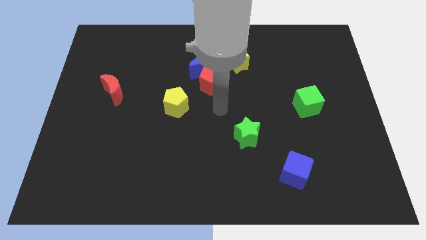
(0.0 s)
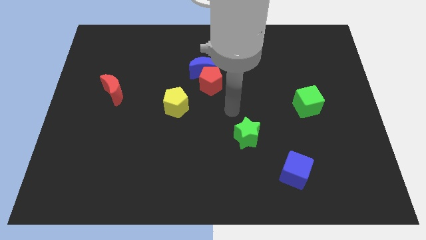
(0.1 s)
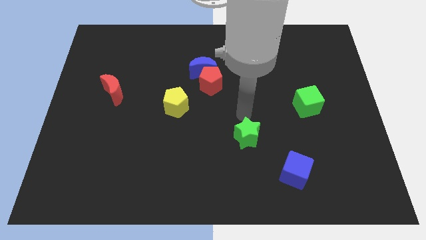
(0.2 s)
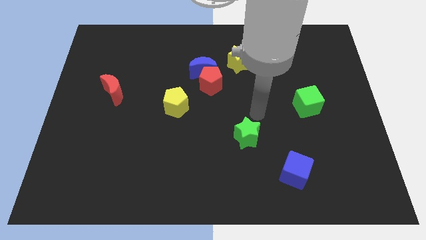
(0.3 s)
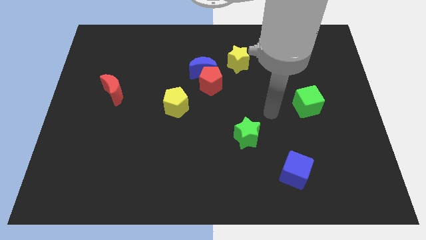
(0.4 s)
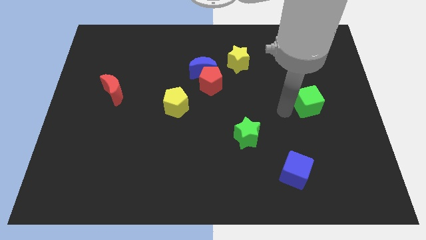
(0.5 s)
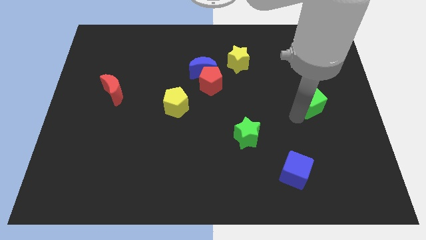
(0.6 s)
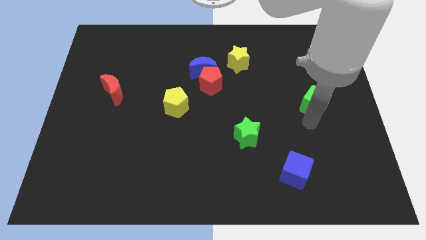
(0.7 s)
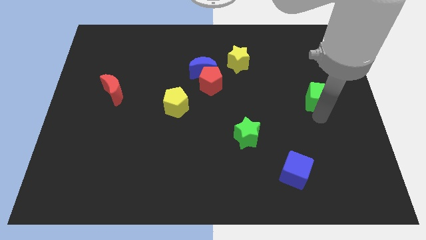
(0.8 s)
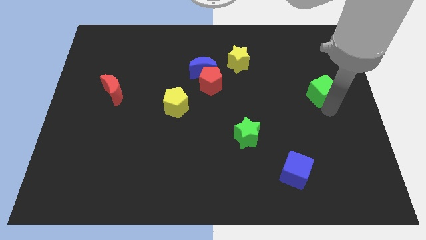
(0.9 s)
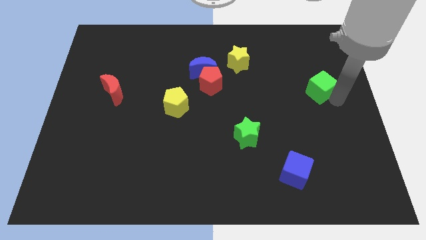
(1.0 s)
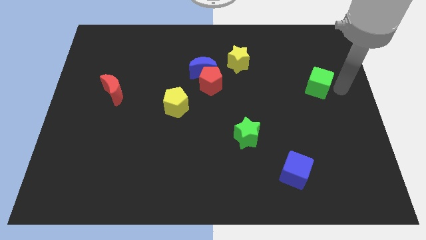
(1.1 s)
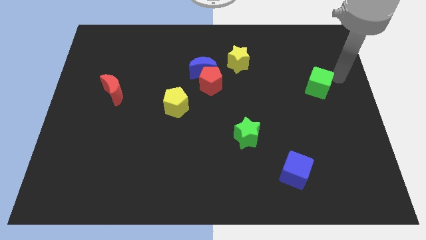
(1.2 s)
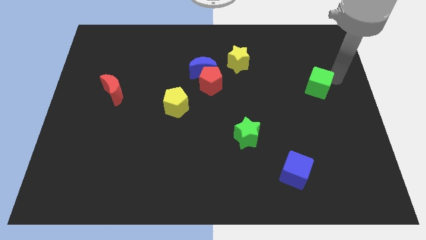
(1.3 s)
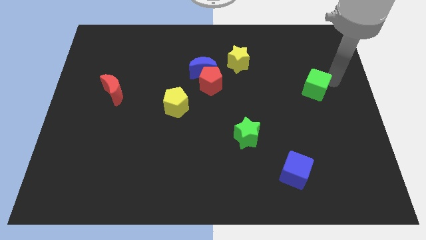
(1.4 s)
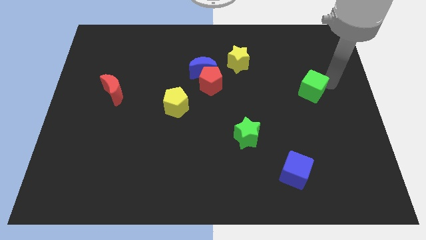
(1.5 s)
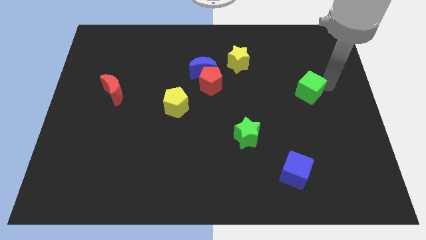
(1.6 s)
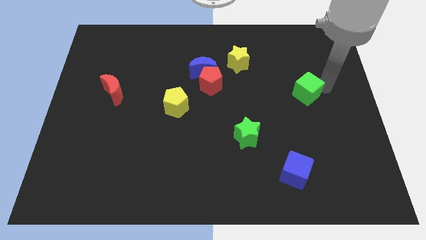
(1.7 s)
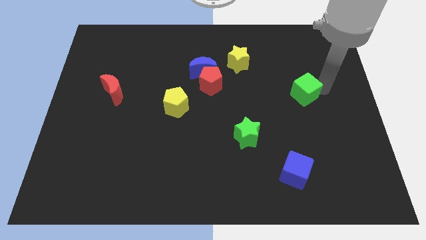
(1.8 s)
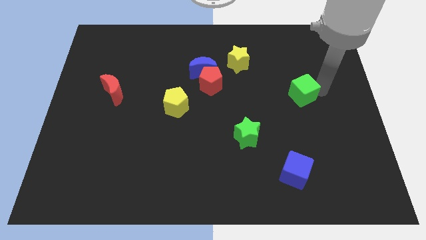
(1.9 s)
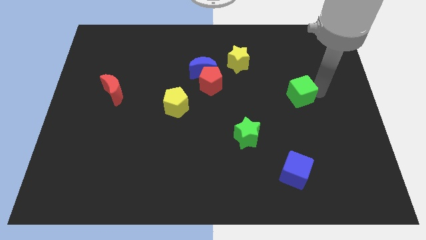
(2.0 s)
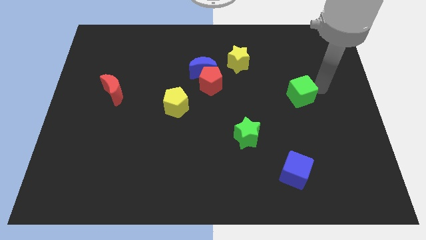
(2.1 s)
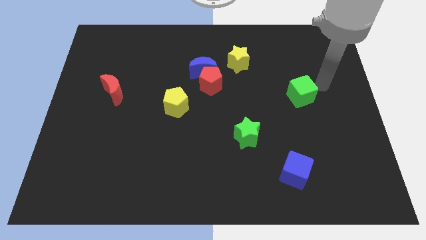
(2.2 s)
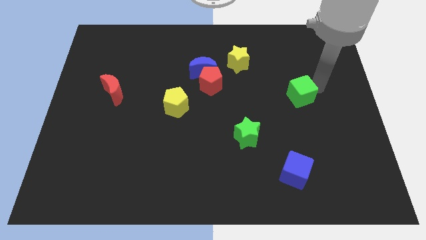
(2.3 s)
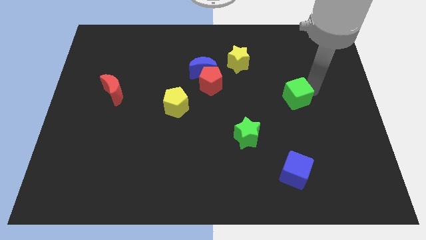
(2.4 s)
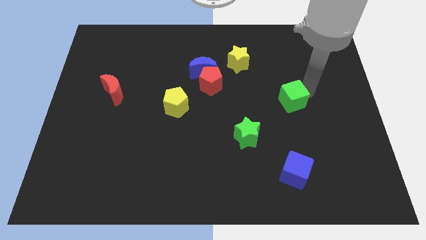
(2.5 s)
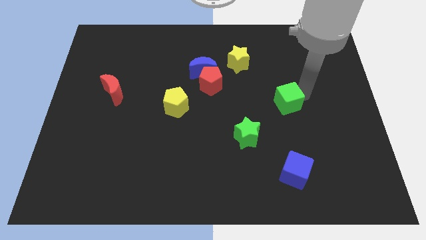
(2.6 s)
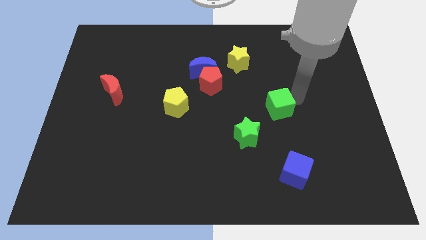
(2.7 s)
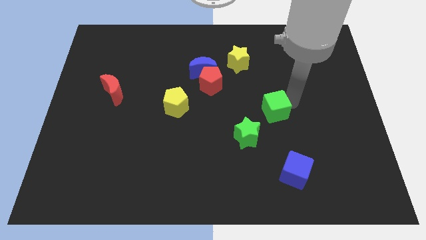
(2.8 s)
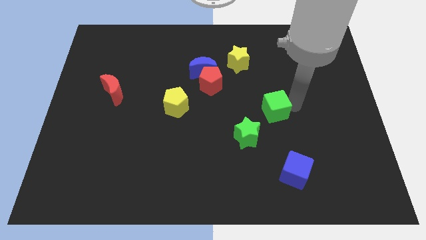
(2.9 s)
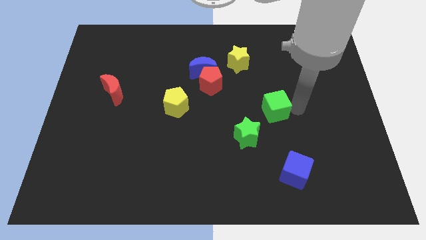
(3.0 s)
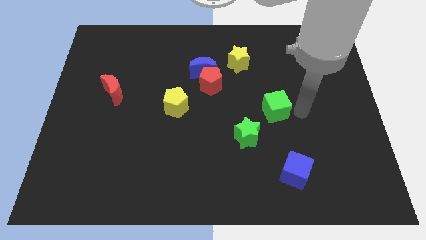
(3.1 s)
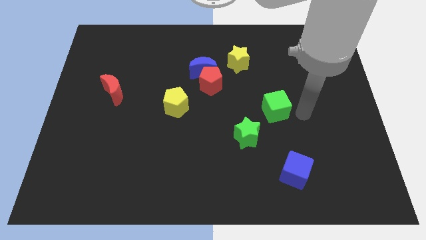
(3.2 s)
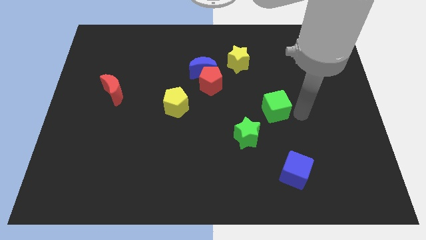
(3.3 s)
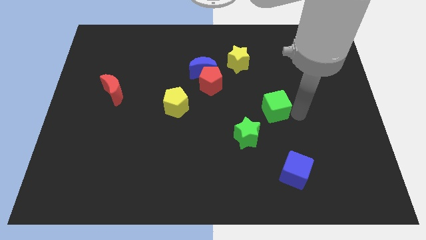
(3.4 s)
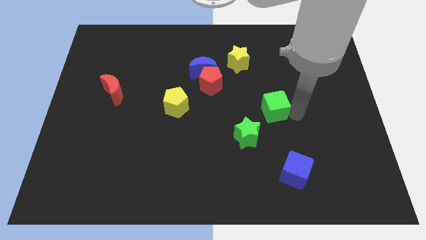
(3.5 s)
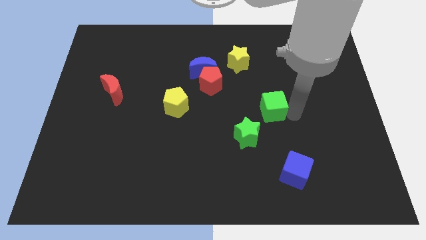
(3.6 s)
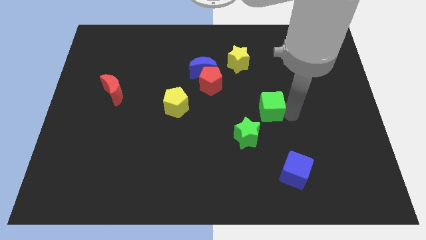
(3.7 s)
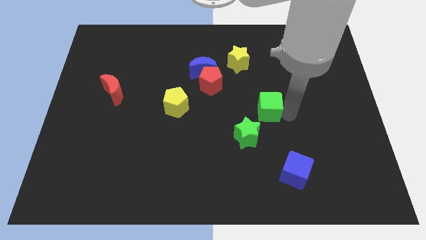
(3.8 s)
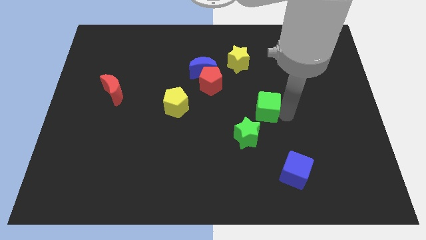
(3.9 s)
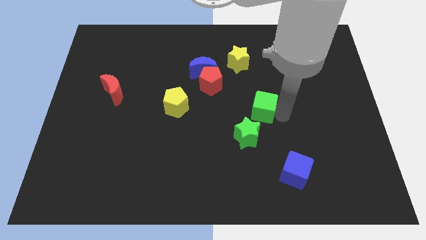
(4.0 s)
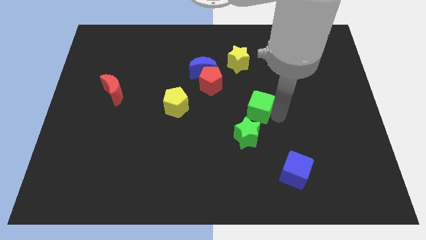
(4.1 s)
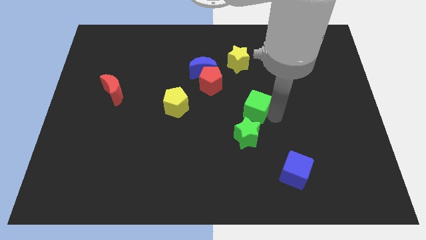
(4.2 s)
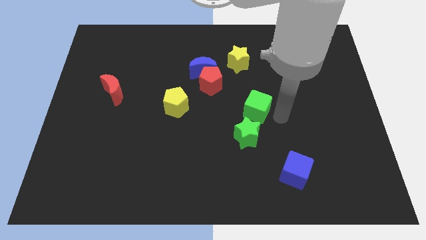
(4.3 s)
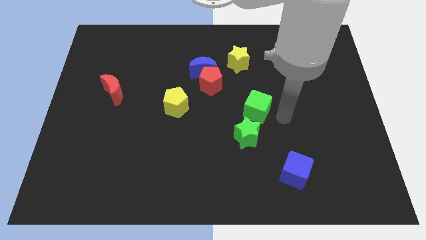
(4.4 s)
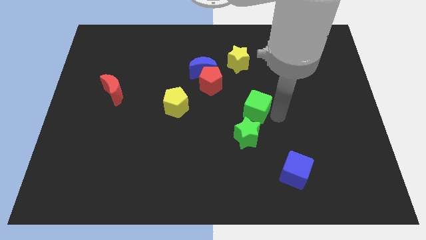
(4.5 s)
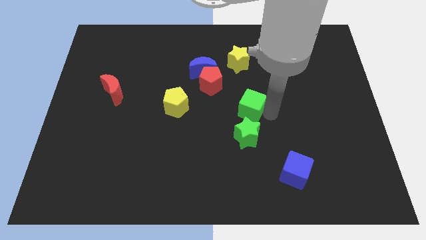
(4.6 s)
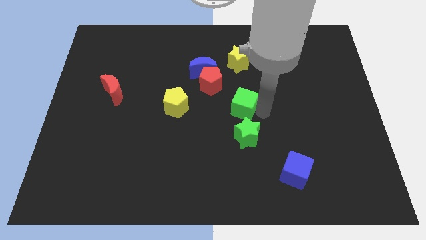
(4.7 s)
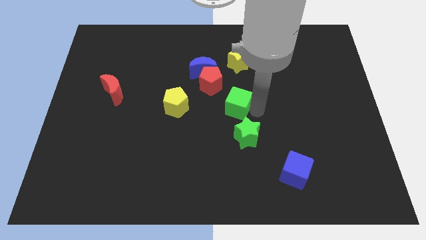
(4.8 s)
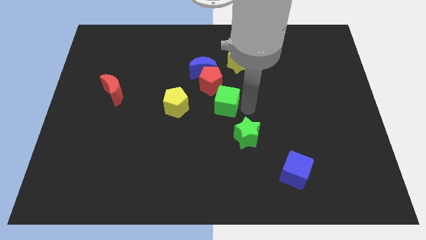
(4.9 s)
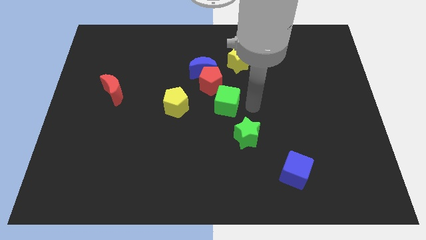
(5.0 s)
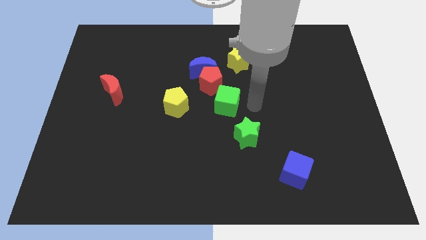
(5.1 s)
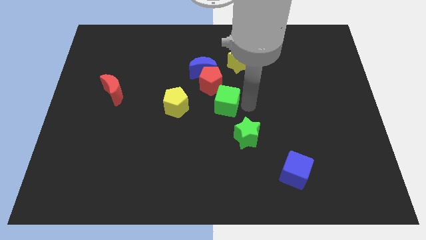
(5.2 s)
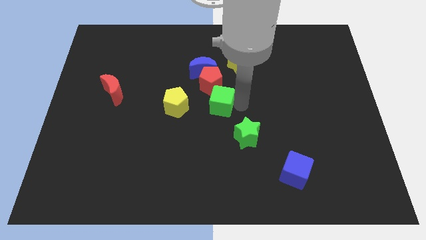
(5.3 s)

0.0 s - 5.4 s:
put the green cube to the bottom of the blue moon

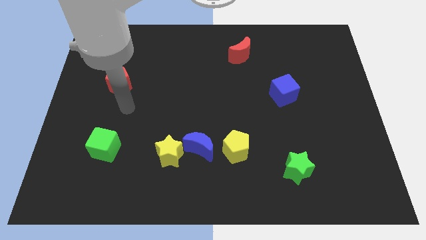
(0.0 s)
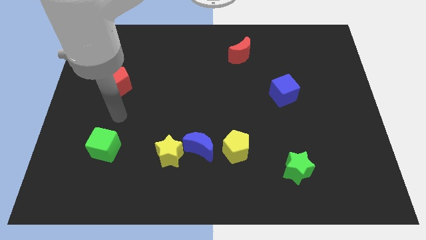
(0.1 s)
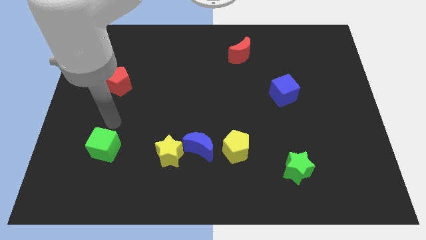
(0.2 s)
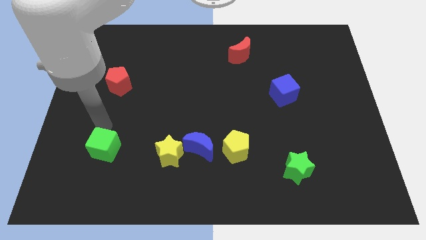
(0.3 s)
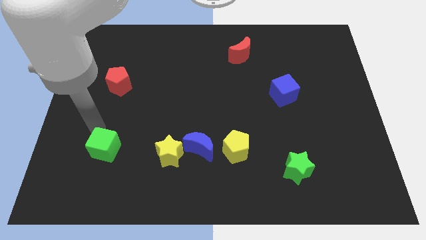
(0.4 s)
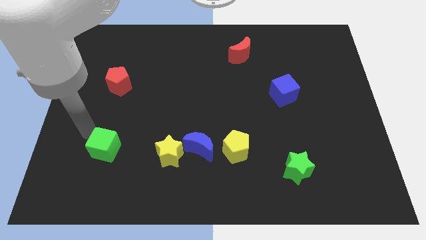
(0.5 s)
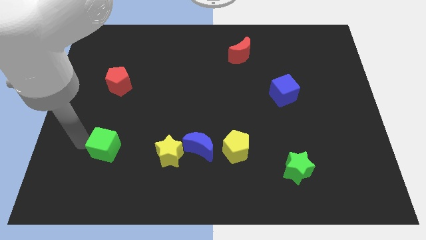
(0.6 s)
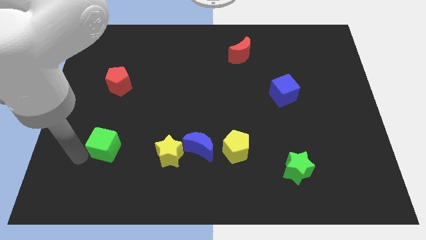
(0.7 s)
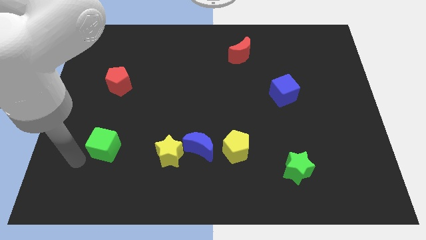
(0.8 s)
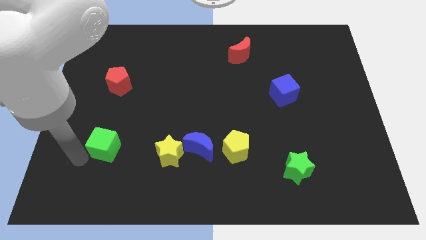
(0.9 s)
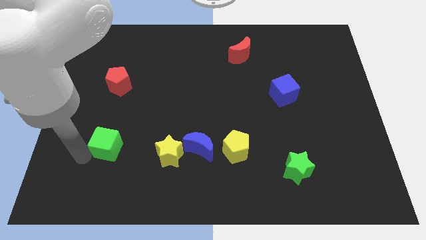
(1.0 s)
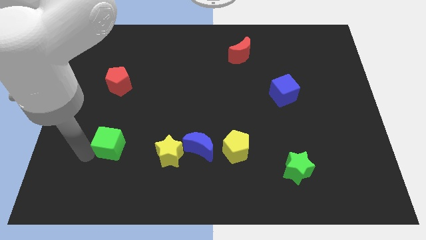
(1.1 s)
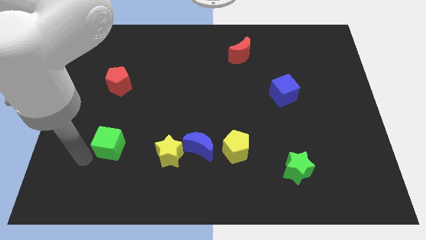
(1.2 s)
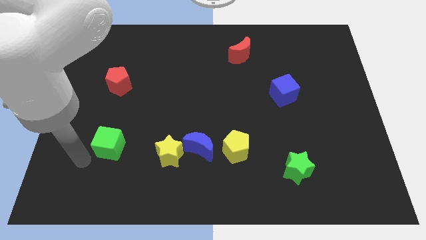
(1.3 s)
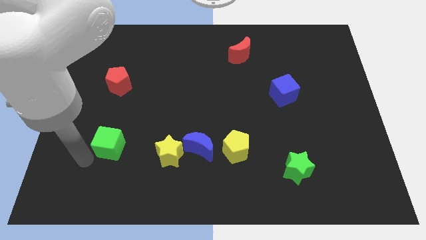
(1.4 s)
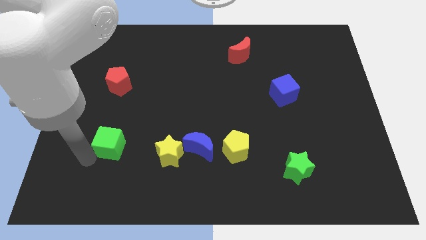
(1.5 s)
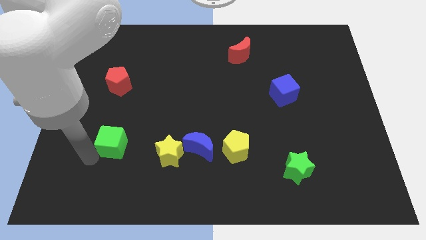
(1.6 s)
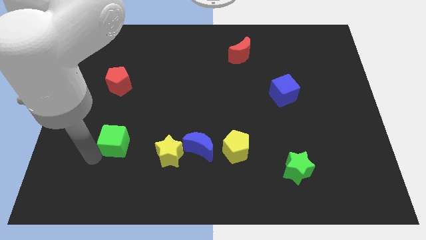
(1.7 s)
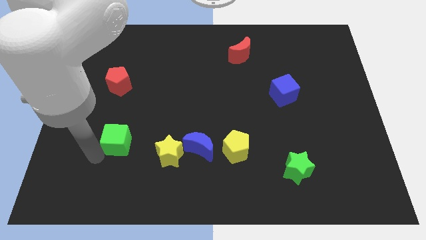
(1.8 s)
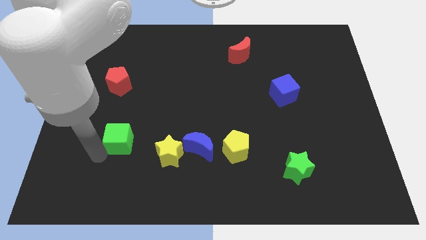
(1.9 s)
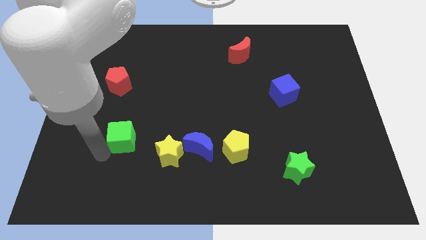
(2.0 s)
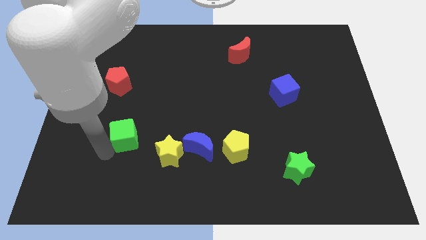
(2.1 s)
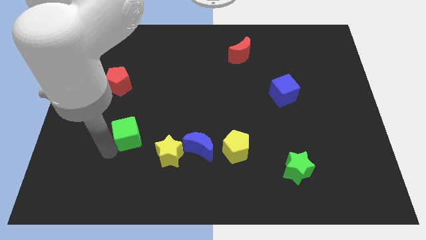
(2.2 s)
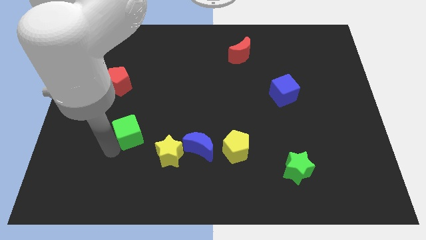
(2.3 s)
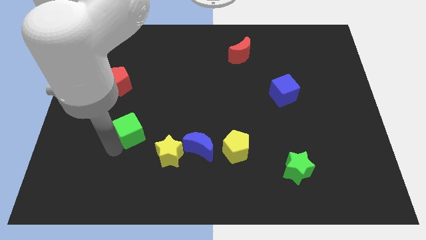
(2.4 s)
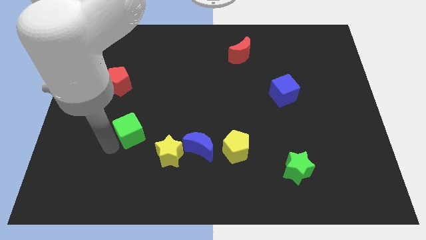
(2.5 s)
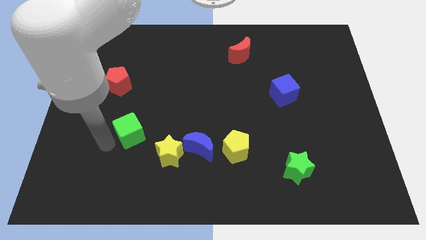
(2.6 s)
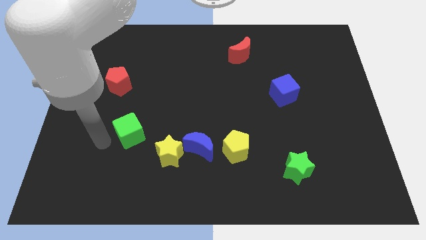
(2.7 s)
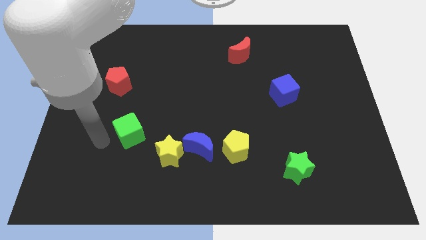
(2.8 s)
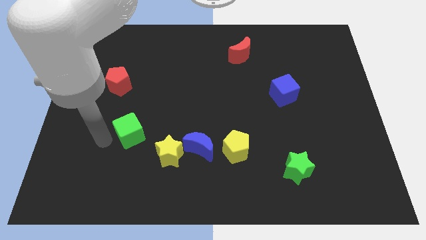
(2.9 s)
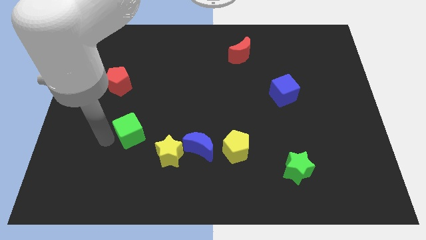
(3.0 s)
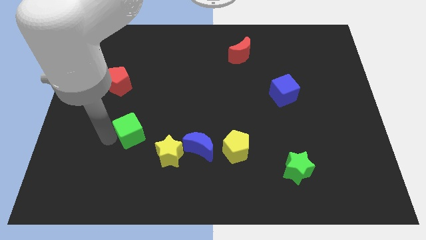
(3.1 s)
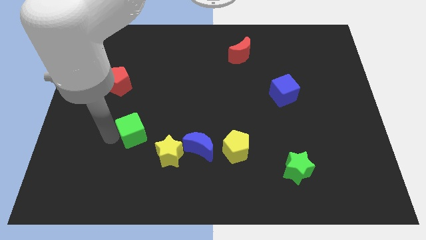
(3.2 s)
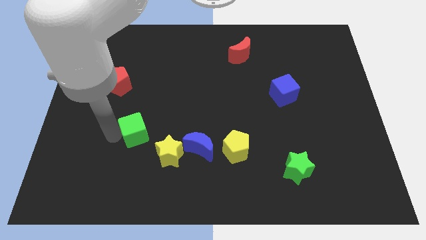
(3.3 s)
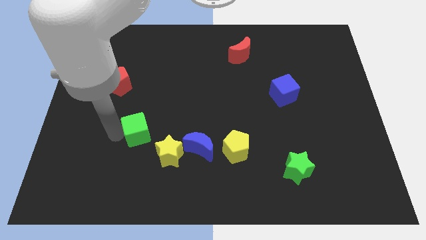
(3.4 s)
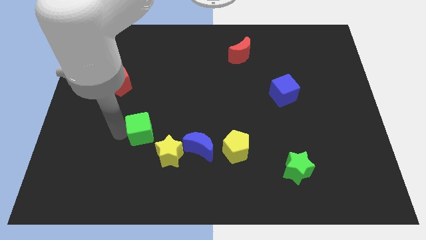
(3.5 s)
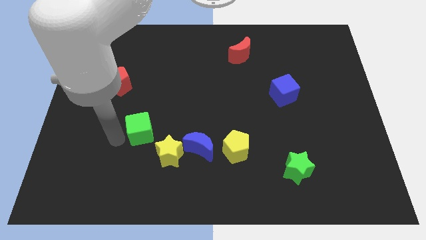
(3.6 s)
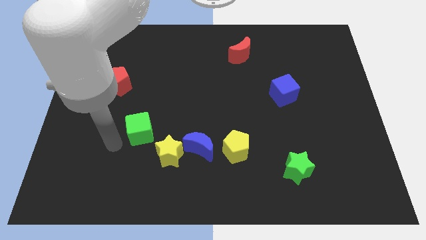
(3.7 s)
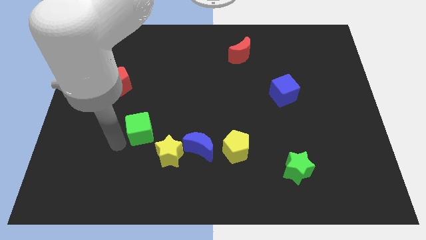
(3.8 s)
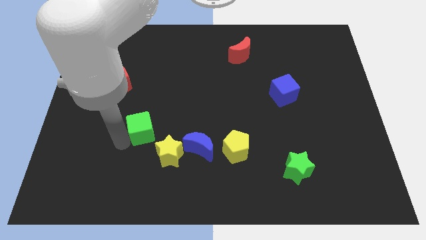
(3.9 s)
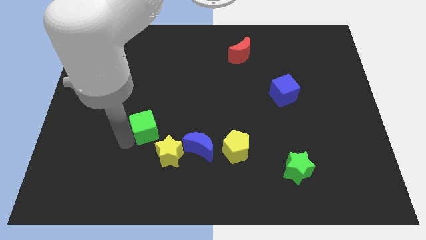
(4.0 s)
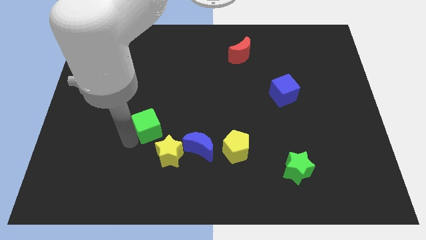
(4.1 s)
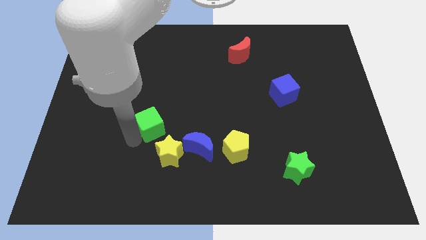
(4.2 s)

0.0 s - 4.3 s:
slide the green cube to the top of the yellow star
